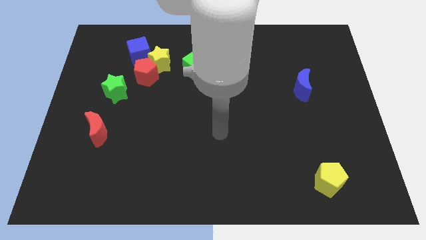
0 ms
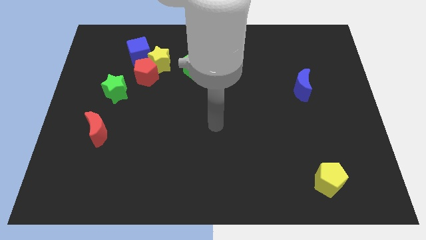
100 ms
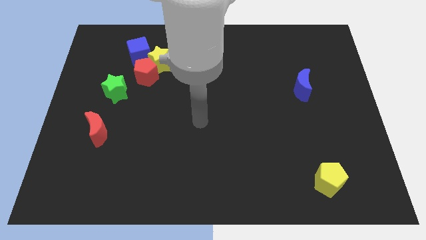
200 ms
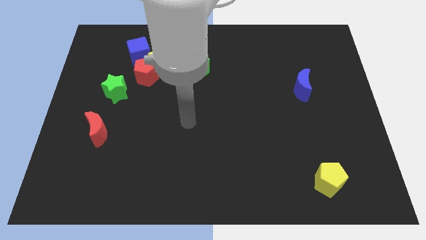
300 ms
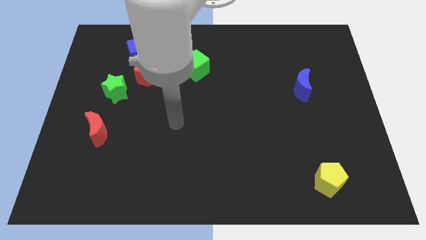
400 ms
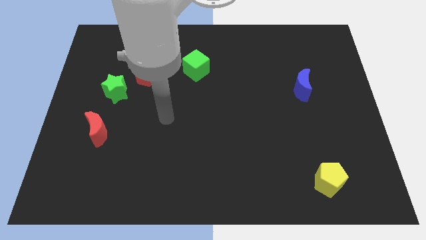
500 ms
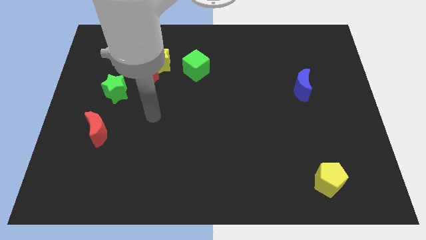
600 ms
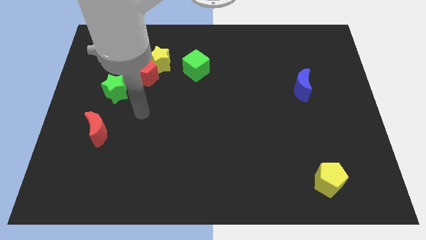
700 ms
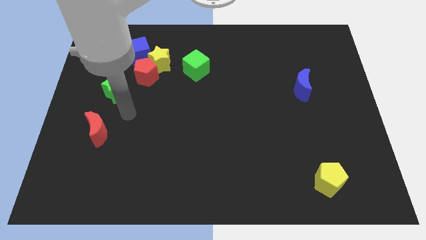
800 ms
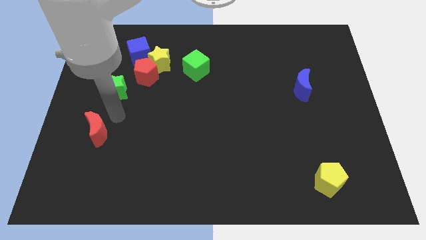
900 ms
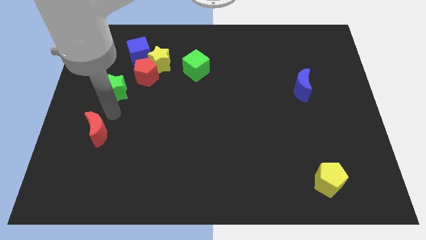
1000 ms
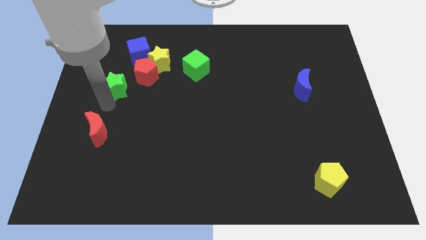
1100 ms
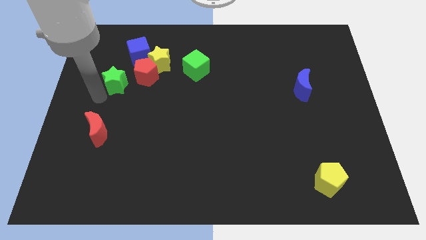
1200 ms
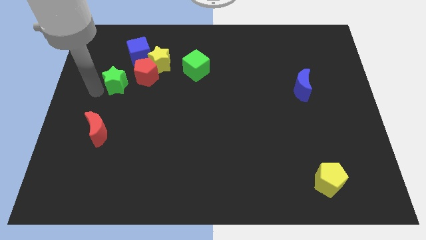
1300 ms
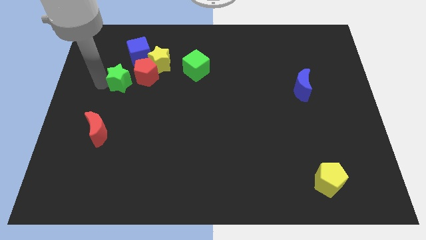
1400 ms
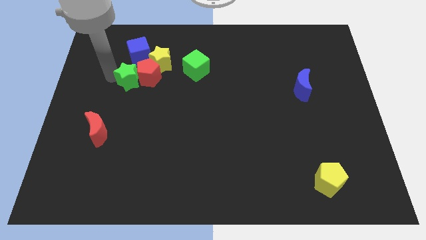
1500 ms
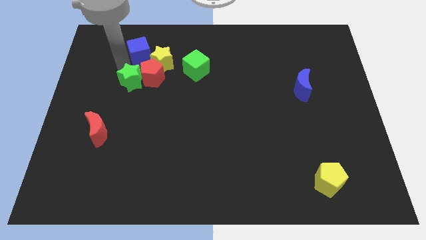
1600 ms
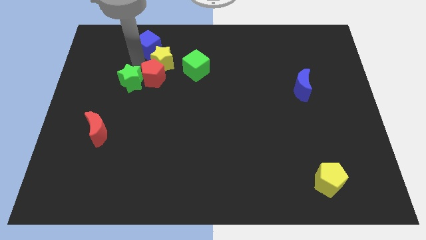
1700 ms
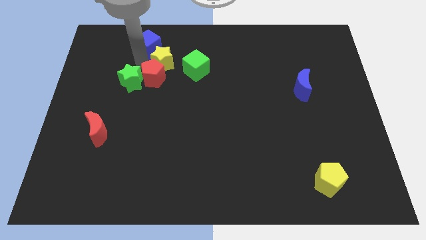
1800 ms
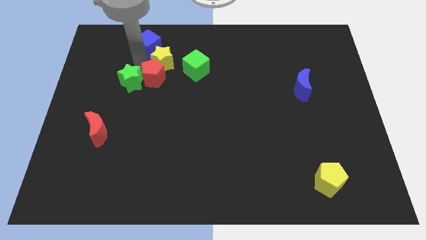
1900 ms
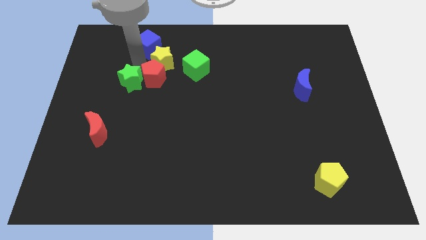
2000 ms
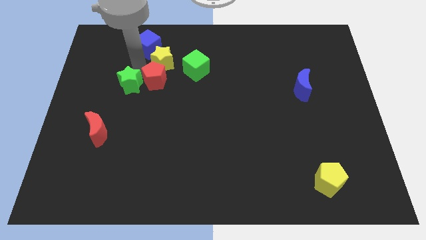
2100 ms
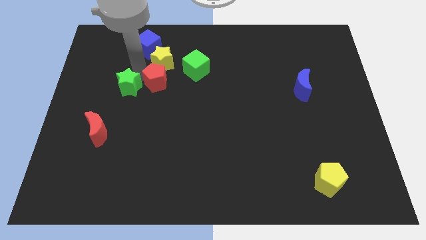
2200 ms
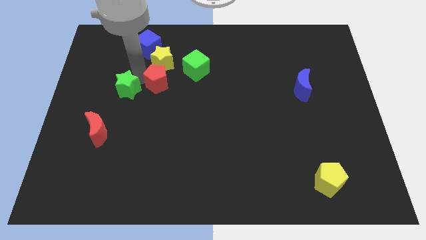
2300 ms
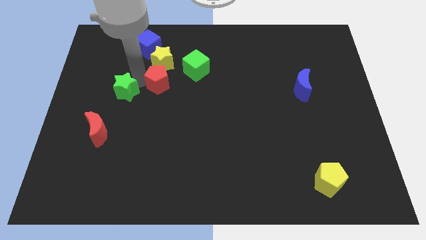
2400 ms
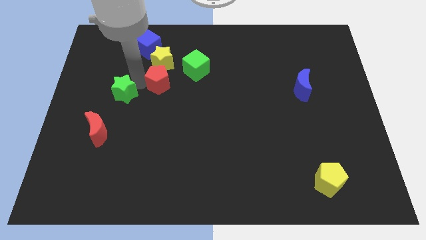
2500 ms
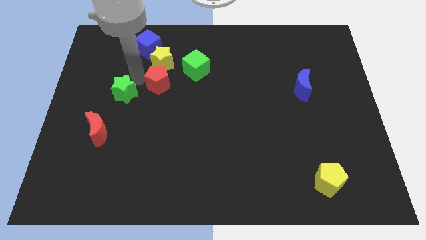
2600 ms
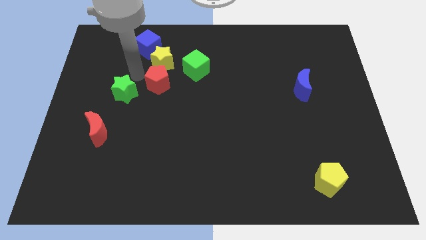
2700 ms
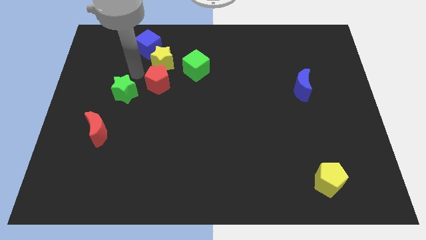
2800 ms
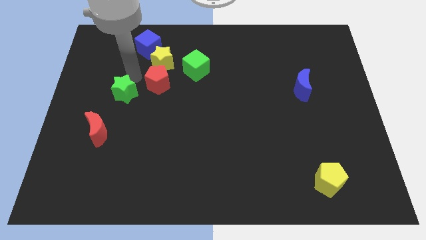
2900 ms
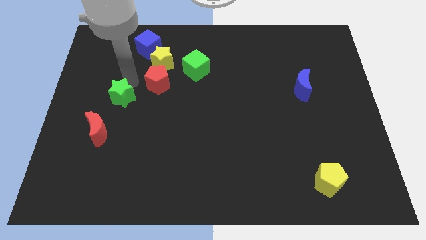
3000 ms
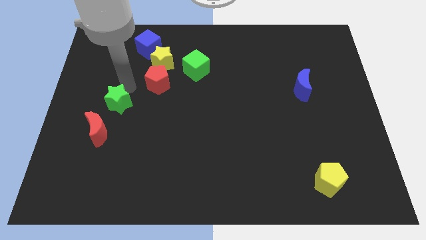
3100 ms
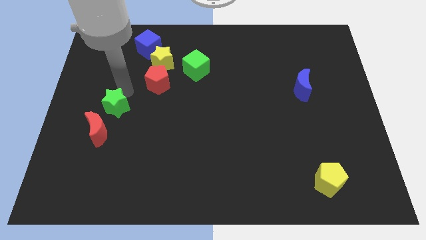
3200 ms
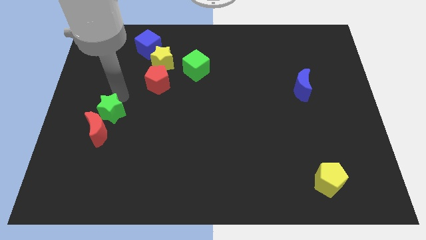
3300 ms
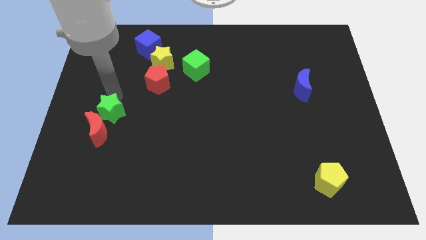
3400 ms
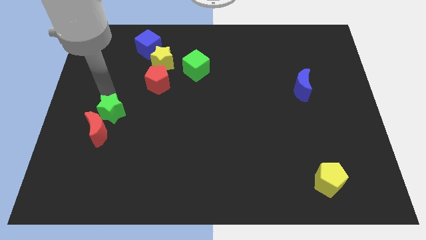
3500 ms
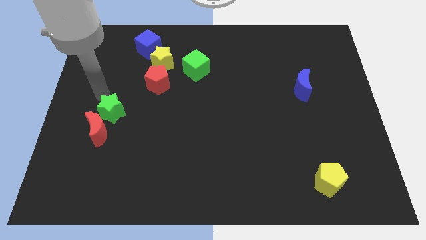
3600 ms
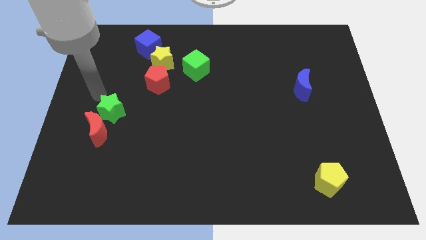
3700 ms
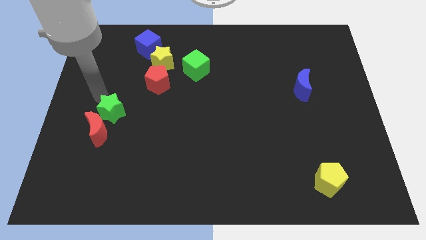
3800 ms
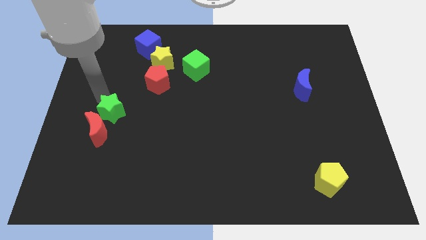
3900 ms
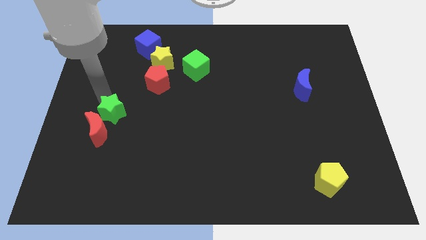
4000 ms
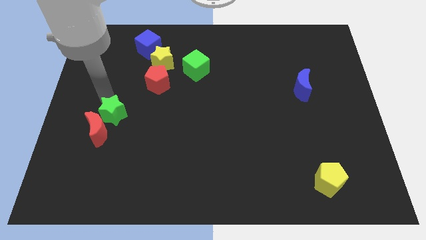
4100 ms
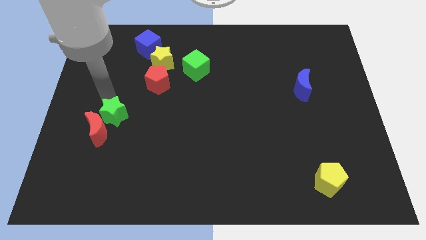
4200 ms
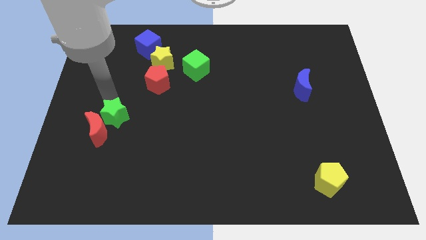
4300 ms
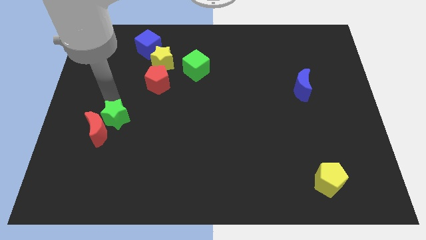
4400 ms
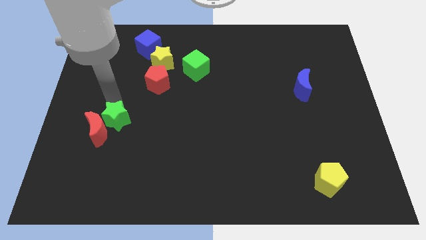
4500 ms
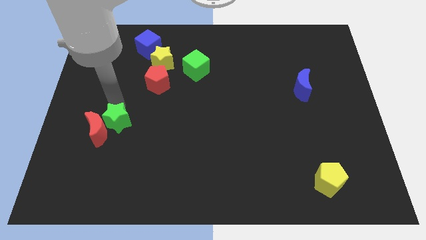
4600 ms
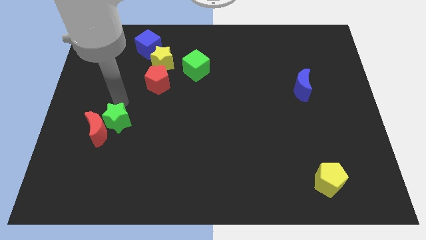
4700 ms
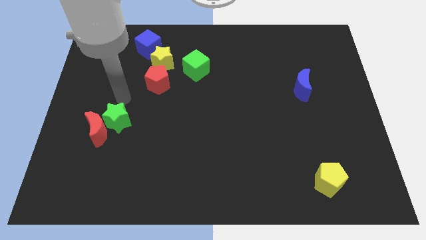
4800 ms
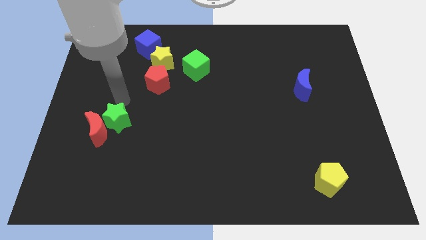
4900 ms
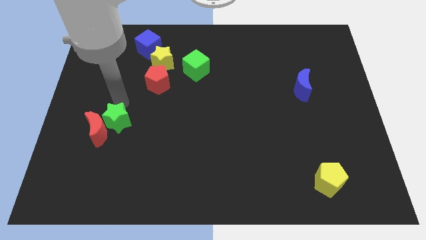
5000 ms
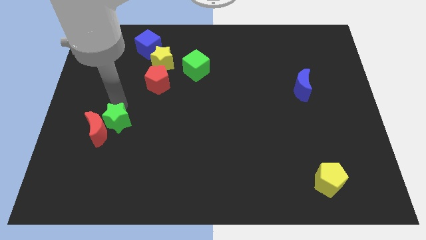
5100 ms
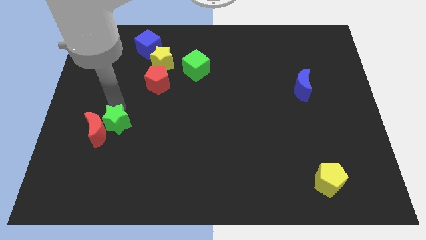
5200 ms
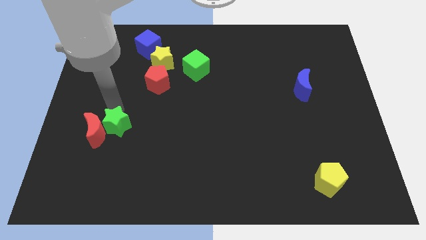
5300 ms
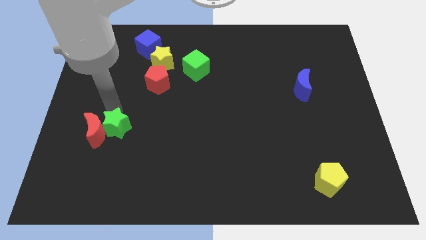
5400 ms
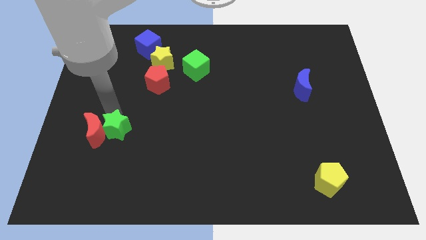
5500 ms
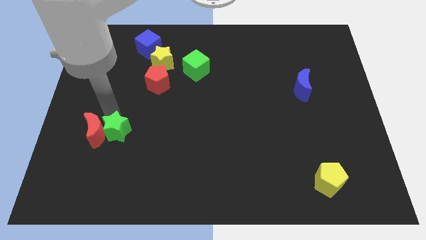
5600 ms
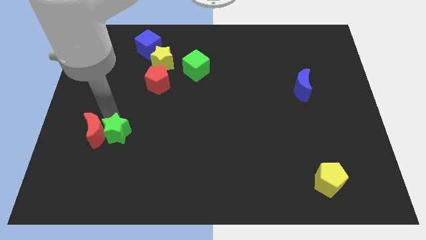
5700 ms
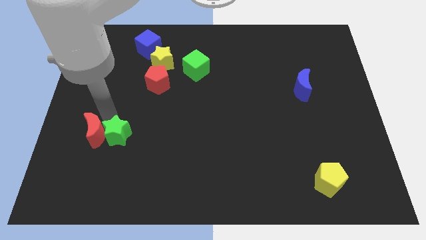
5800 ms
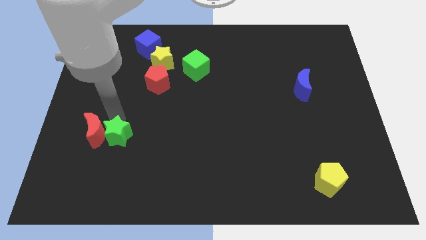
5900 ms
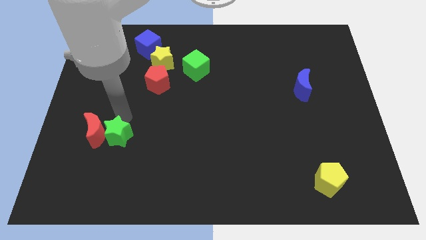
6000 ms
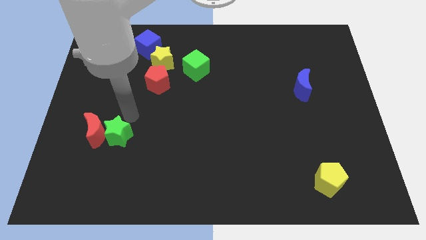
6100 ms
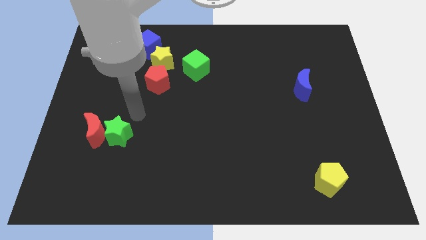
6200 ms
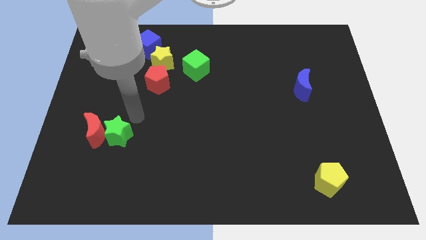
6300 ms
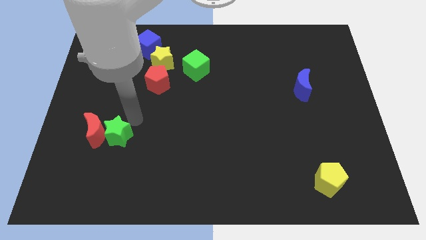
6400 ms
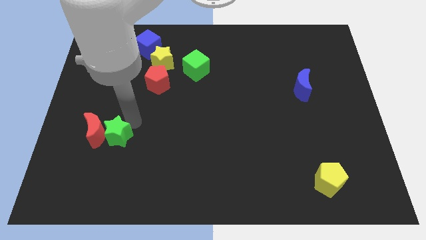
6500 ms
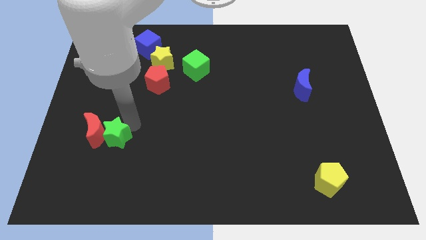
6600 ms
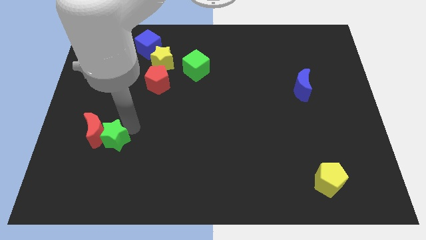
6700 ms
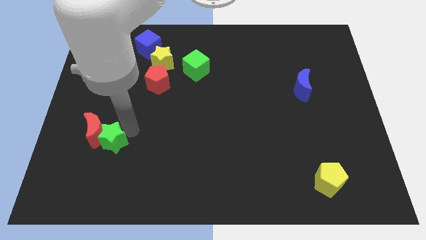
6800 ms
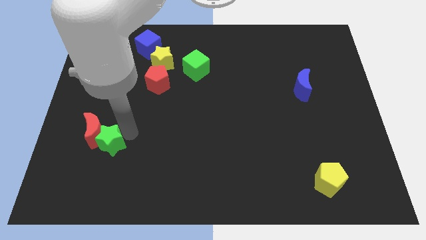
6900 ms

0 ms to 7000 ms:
put the green star below the red moon
